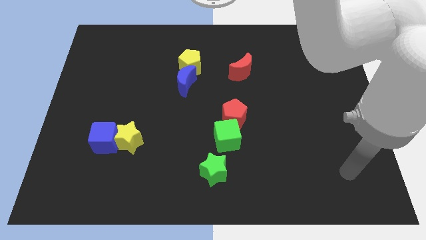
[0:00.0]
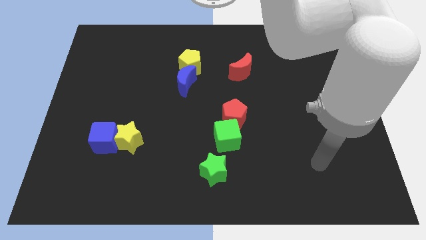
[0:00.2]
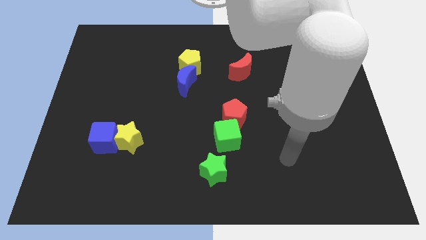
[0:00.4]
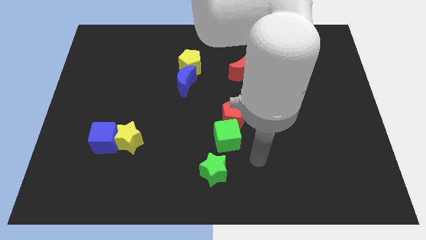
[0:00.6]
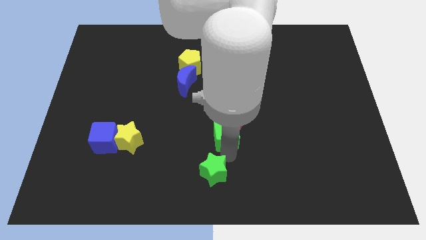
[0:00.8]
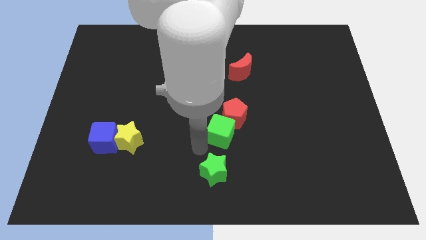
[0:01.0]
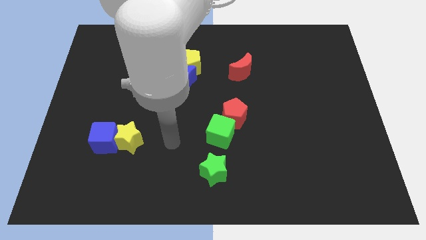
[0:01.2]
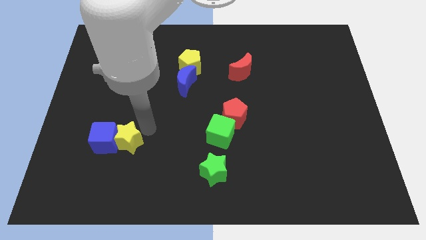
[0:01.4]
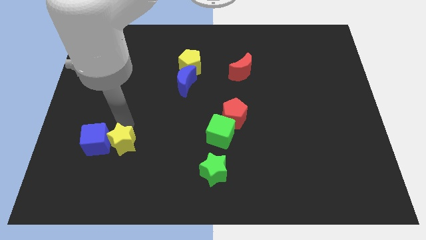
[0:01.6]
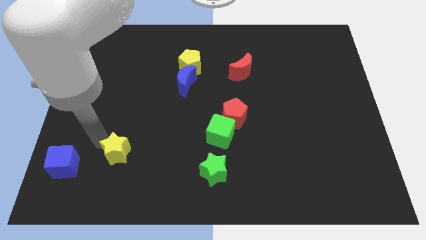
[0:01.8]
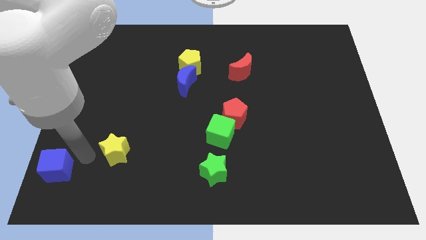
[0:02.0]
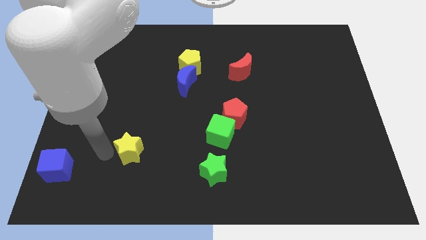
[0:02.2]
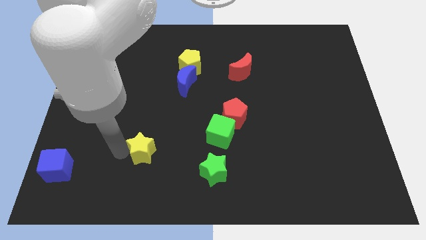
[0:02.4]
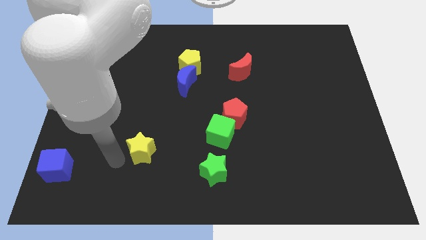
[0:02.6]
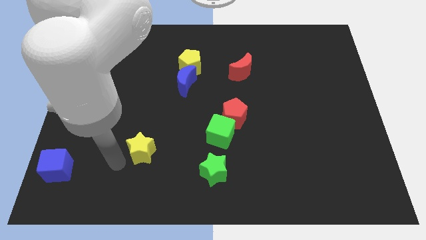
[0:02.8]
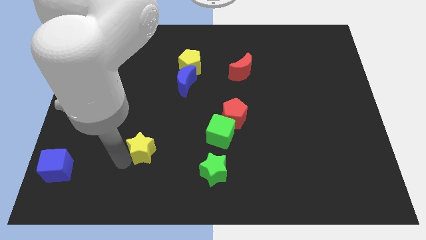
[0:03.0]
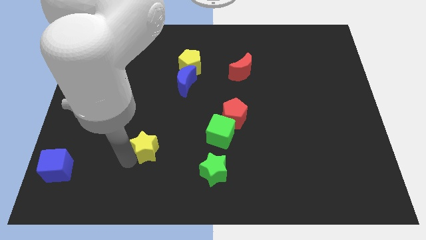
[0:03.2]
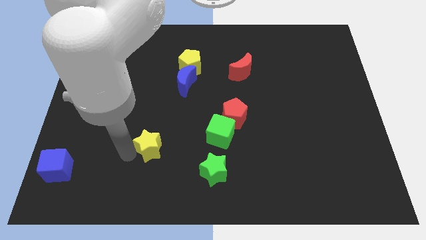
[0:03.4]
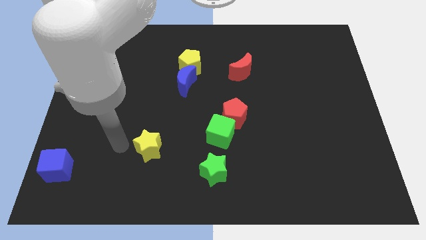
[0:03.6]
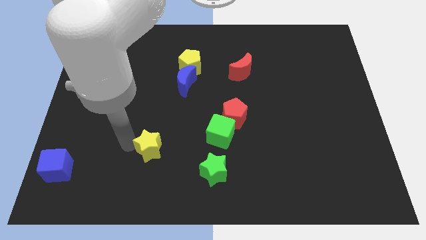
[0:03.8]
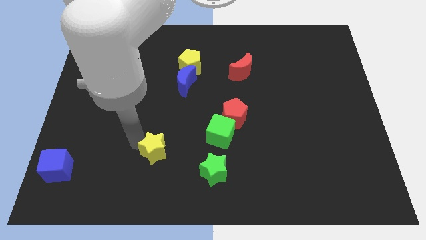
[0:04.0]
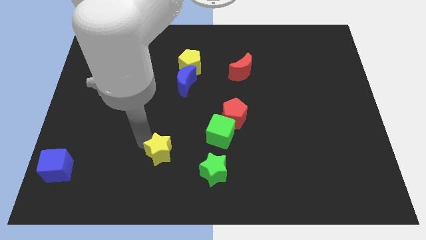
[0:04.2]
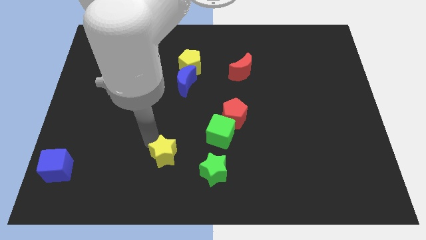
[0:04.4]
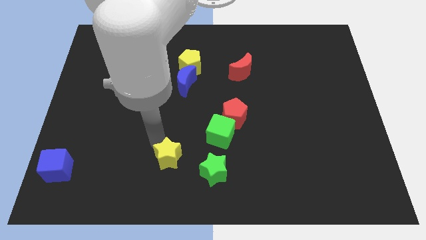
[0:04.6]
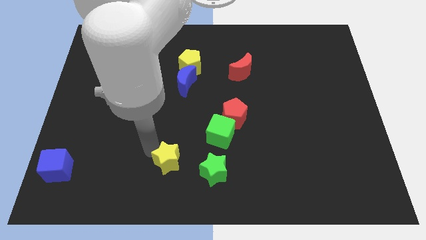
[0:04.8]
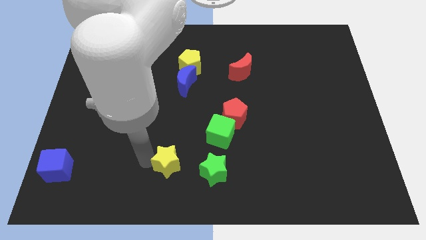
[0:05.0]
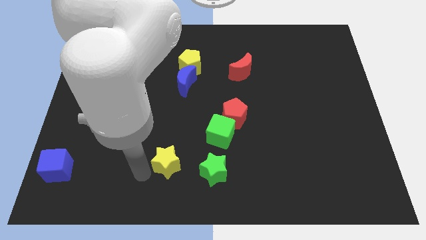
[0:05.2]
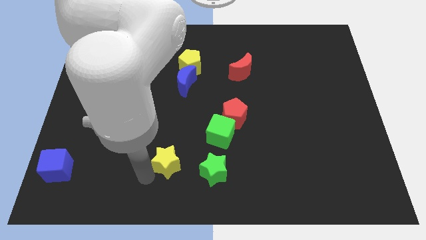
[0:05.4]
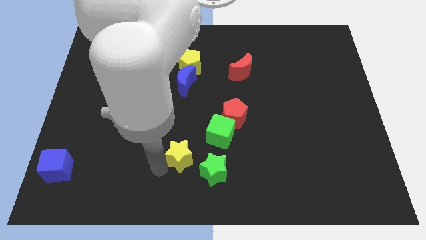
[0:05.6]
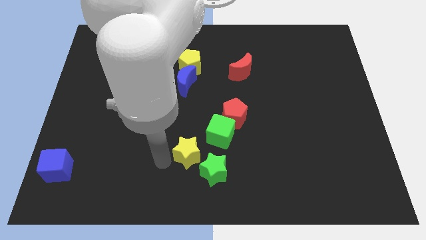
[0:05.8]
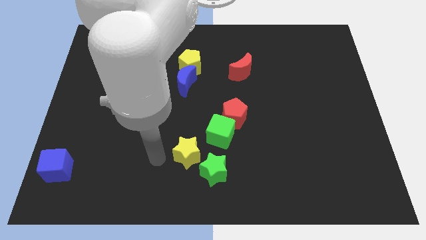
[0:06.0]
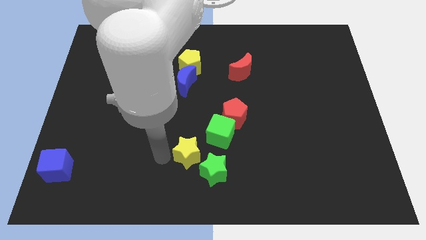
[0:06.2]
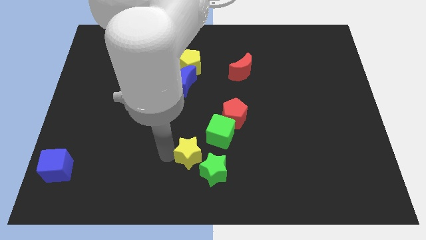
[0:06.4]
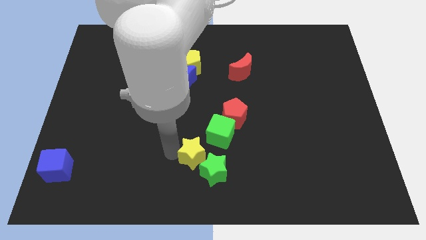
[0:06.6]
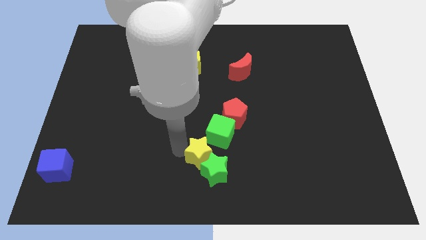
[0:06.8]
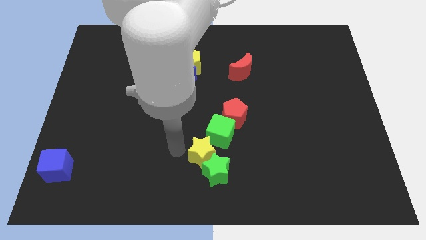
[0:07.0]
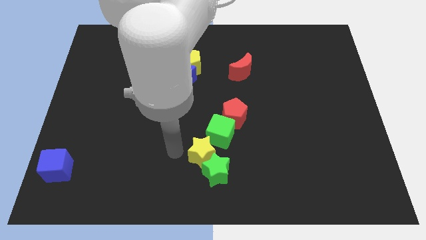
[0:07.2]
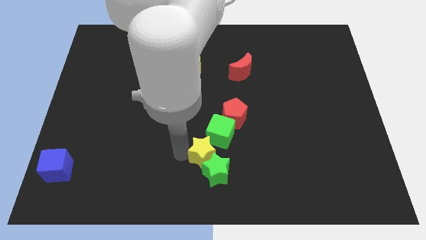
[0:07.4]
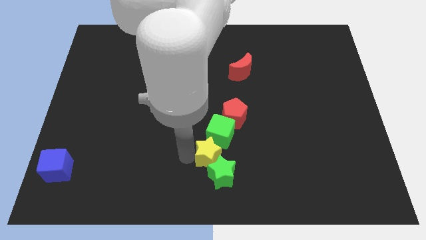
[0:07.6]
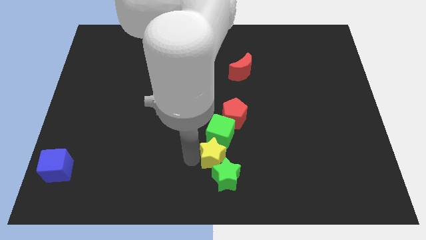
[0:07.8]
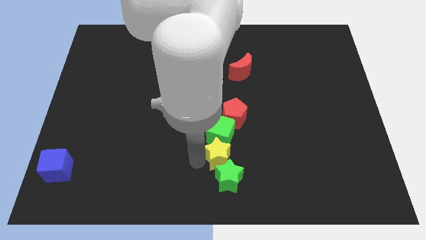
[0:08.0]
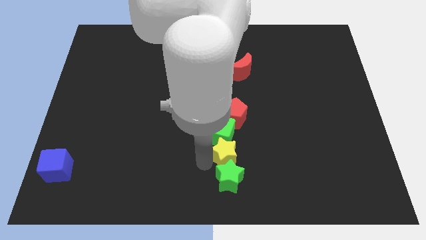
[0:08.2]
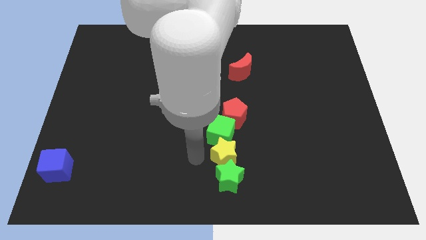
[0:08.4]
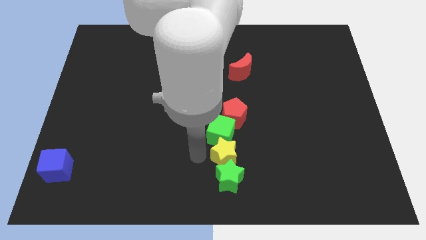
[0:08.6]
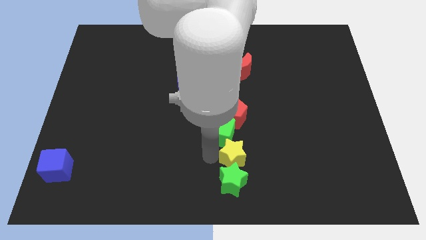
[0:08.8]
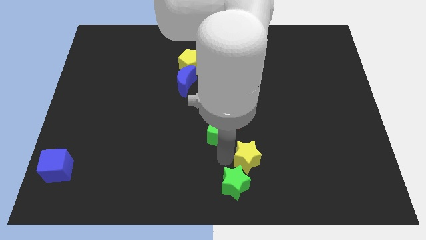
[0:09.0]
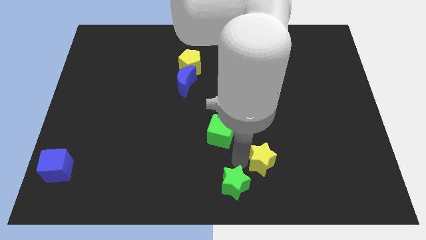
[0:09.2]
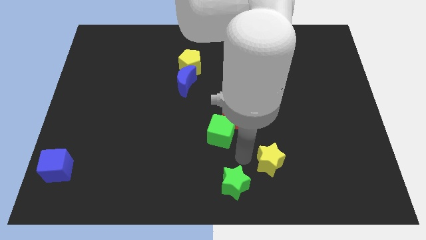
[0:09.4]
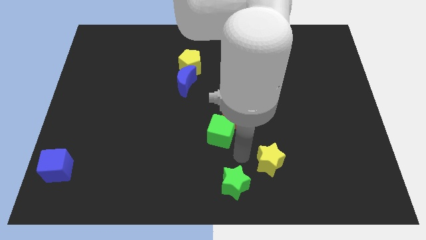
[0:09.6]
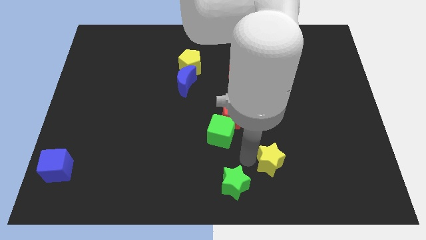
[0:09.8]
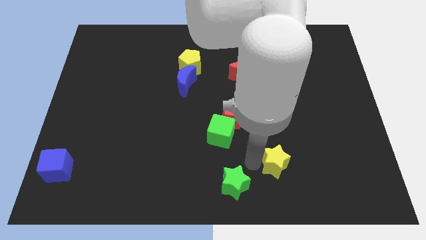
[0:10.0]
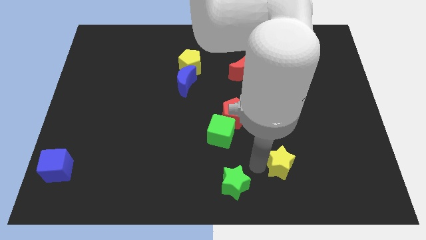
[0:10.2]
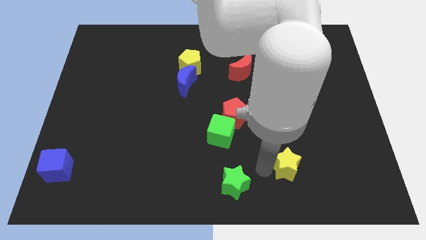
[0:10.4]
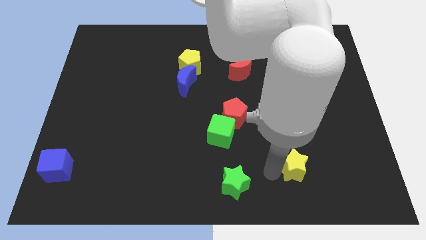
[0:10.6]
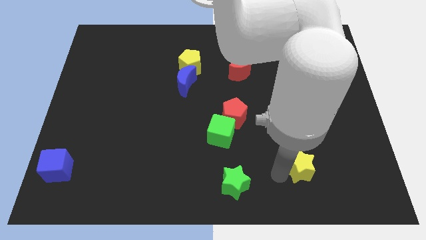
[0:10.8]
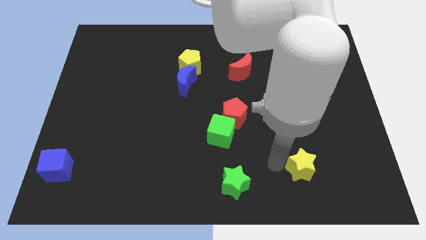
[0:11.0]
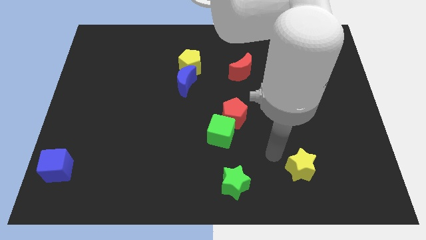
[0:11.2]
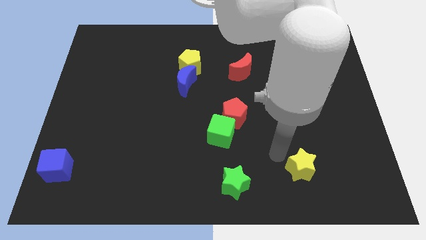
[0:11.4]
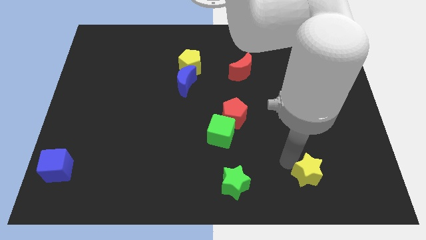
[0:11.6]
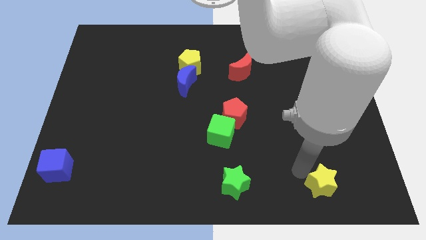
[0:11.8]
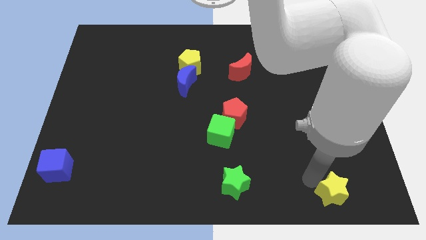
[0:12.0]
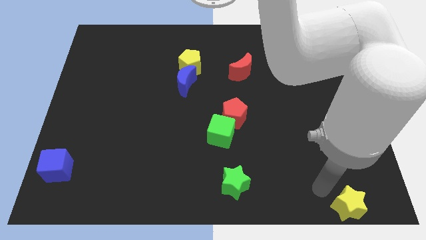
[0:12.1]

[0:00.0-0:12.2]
put the yellow star to the lower right corner
